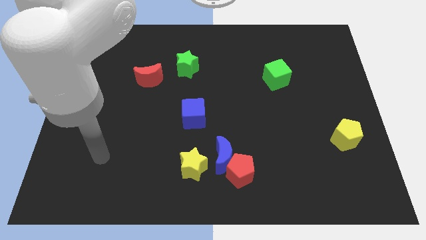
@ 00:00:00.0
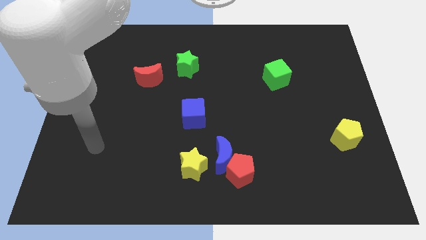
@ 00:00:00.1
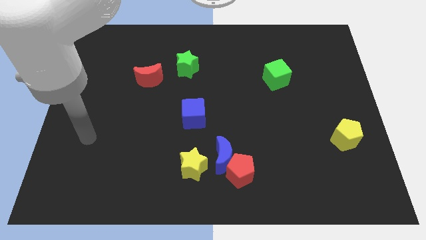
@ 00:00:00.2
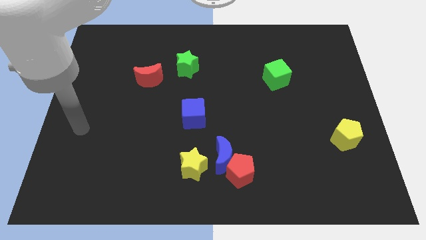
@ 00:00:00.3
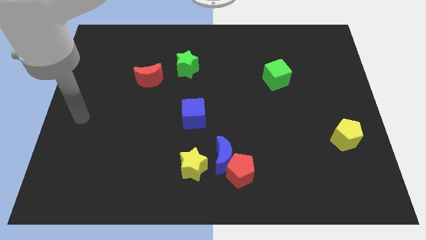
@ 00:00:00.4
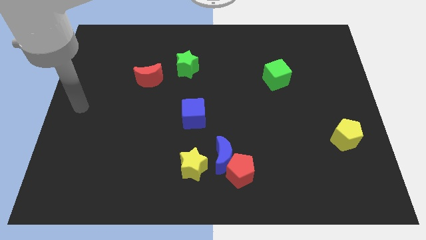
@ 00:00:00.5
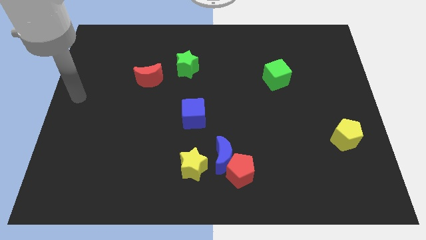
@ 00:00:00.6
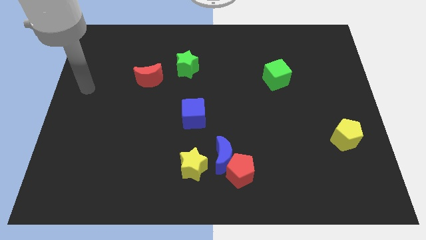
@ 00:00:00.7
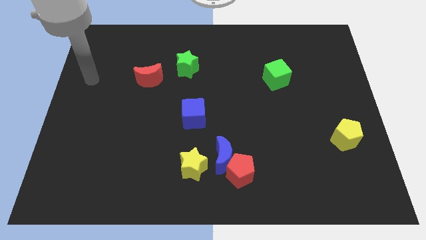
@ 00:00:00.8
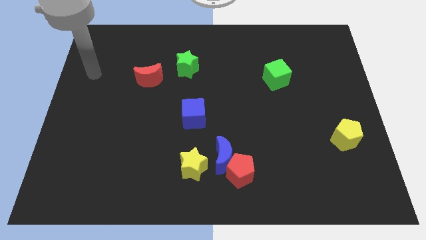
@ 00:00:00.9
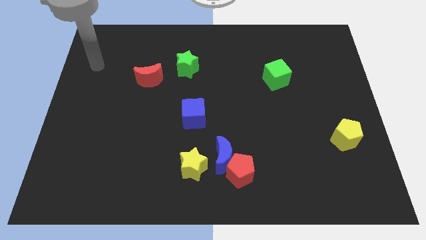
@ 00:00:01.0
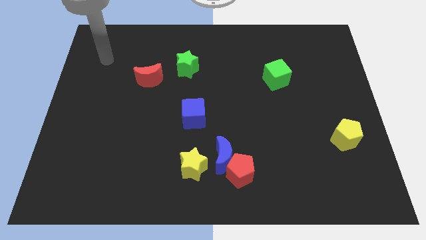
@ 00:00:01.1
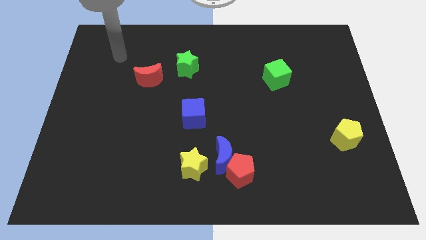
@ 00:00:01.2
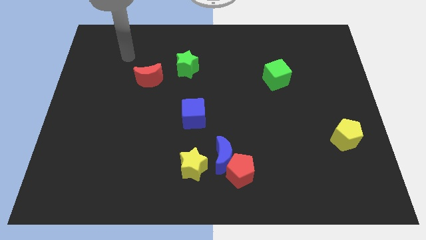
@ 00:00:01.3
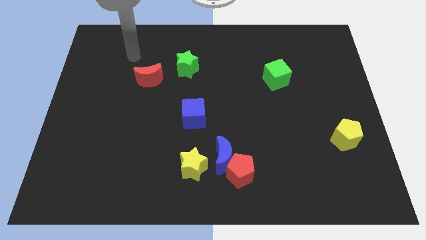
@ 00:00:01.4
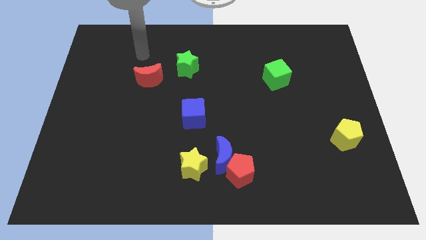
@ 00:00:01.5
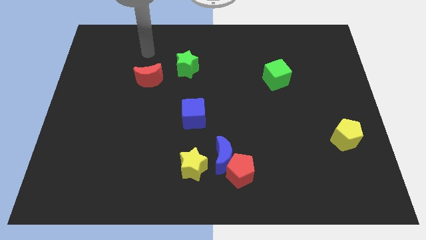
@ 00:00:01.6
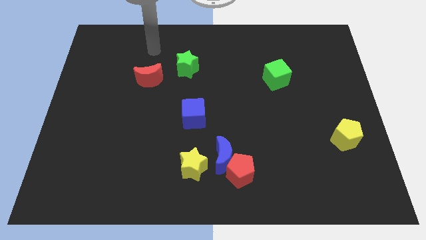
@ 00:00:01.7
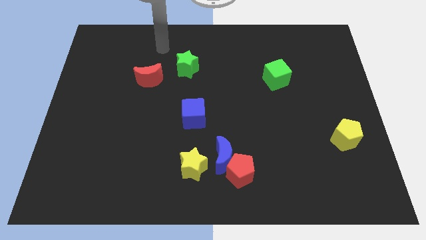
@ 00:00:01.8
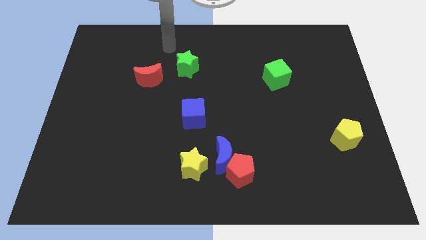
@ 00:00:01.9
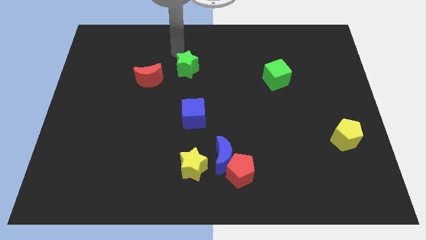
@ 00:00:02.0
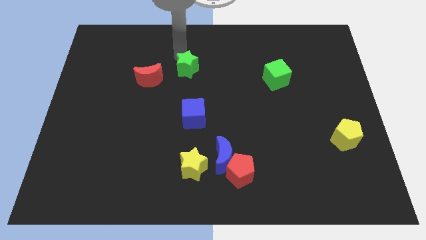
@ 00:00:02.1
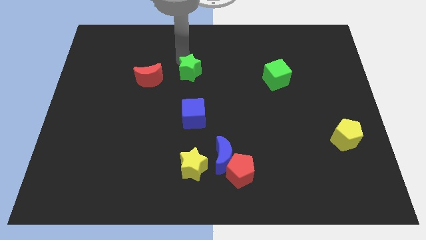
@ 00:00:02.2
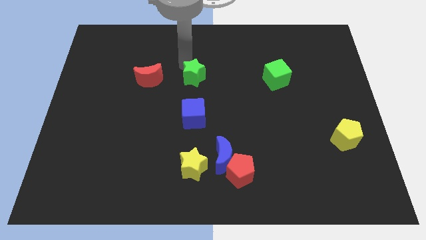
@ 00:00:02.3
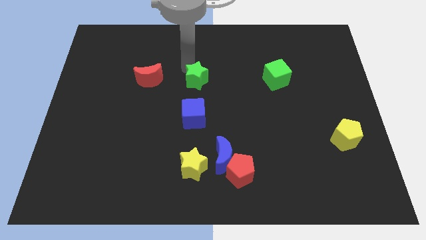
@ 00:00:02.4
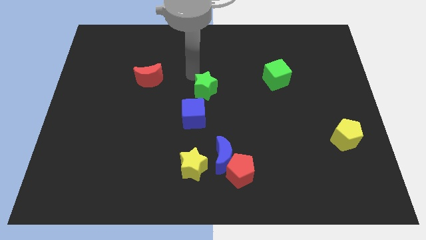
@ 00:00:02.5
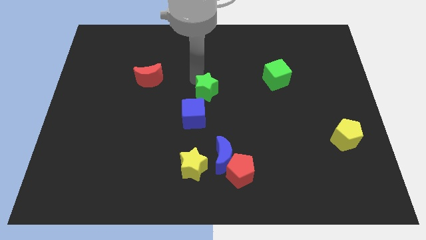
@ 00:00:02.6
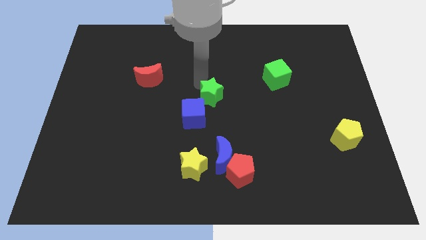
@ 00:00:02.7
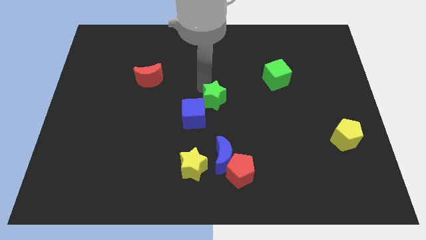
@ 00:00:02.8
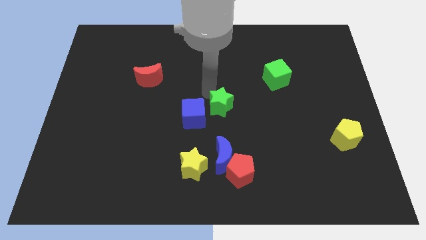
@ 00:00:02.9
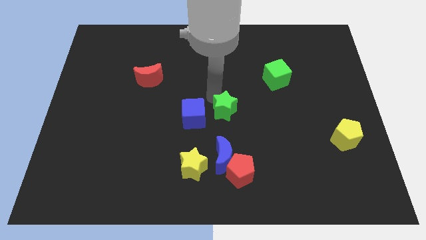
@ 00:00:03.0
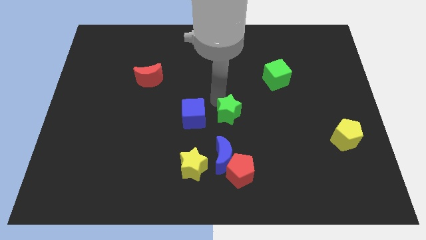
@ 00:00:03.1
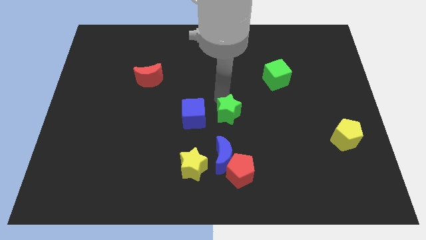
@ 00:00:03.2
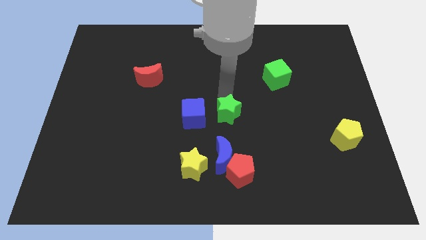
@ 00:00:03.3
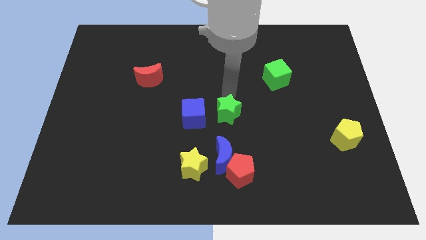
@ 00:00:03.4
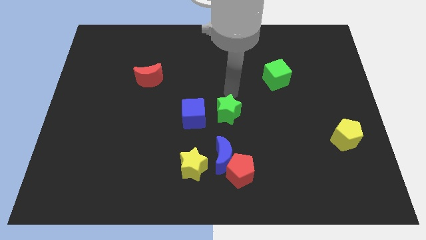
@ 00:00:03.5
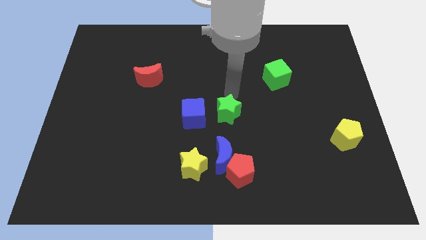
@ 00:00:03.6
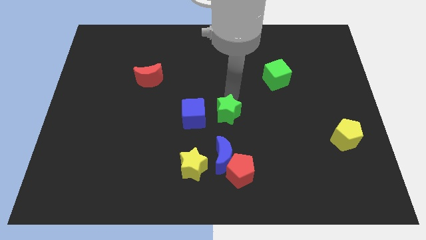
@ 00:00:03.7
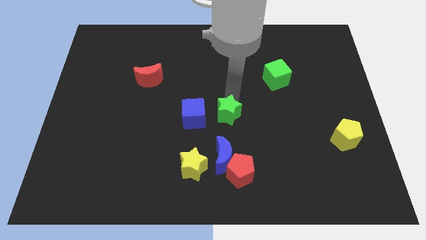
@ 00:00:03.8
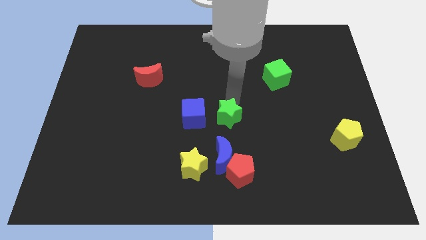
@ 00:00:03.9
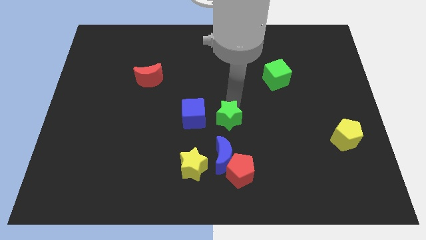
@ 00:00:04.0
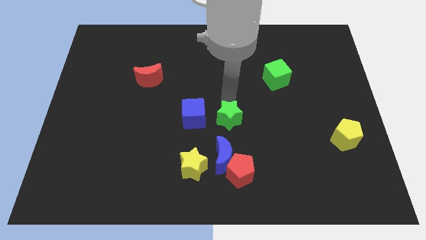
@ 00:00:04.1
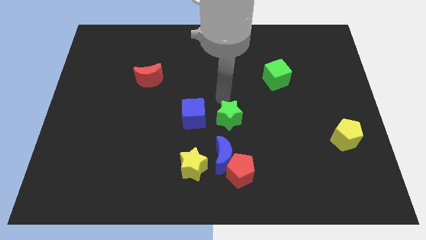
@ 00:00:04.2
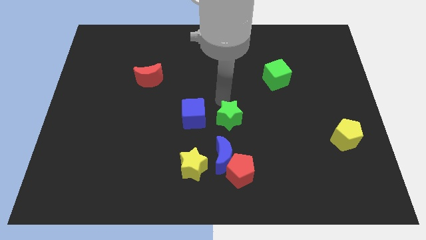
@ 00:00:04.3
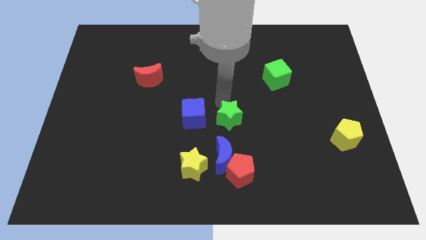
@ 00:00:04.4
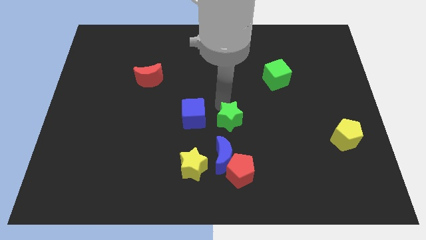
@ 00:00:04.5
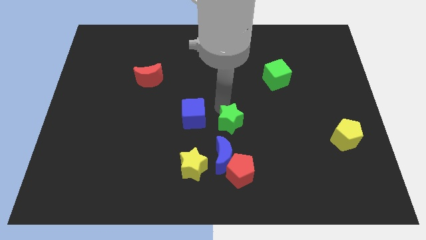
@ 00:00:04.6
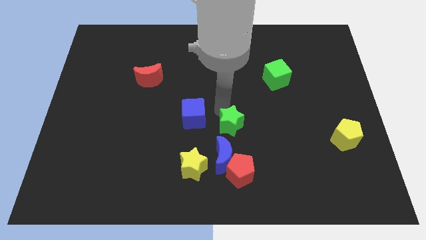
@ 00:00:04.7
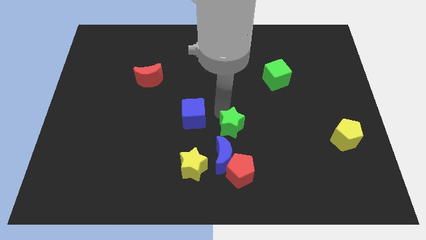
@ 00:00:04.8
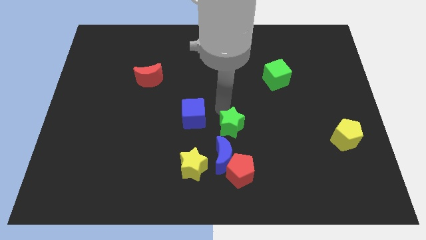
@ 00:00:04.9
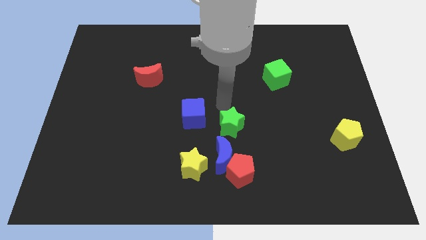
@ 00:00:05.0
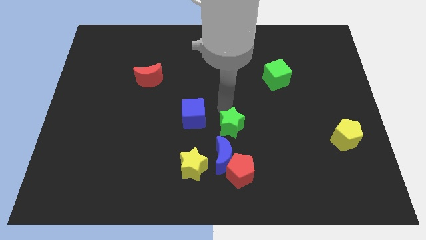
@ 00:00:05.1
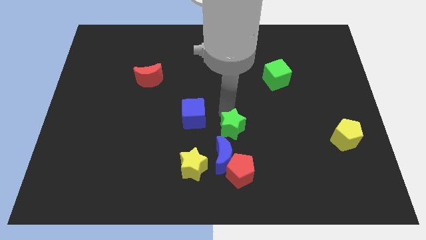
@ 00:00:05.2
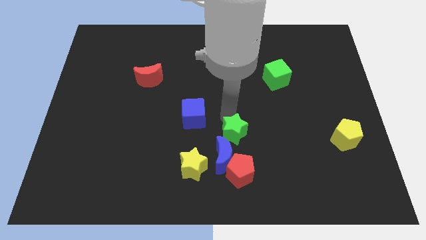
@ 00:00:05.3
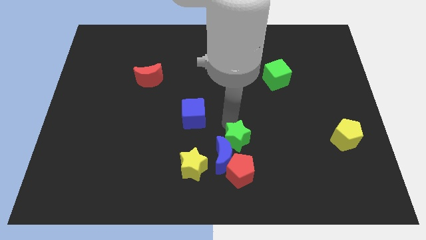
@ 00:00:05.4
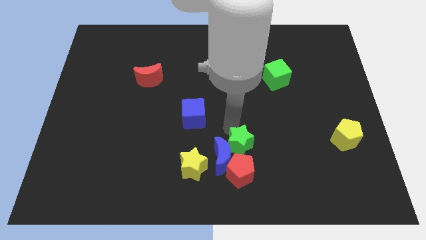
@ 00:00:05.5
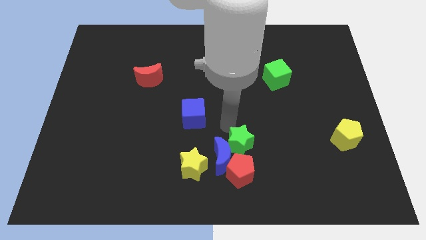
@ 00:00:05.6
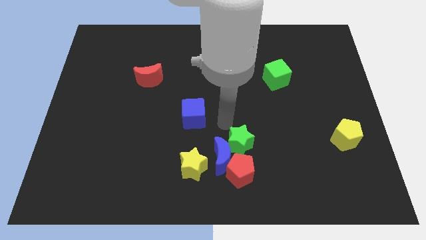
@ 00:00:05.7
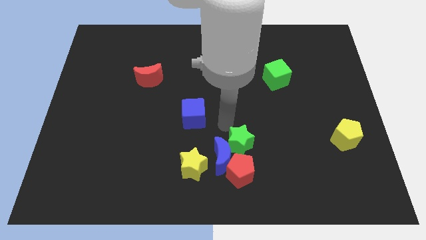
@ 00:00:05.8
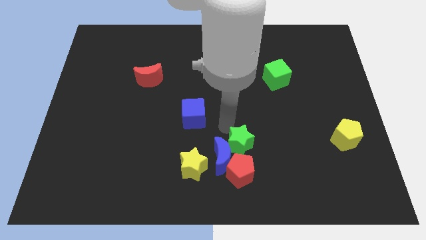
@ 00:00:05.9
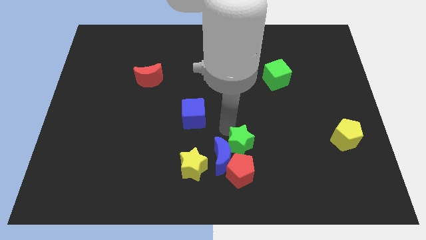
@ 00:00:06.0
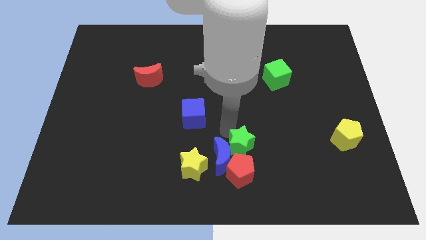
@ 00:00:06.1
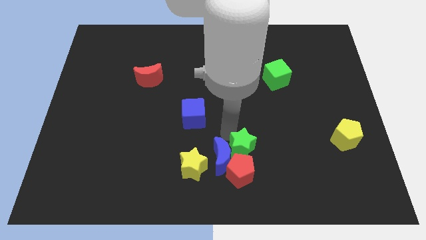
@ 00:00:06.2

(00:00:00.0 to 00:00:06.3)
put the green star towards the red pentagon
